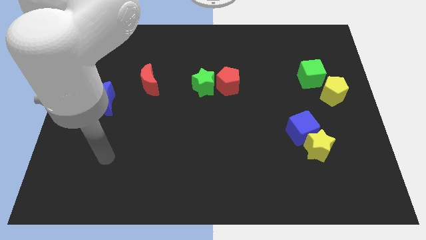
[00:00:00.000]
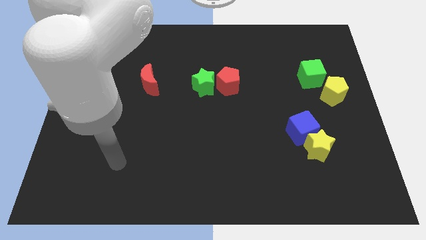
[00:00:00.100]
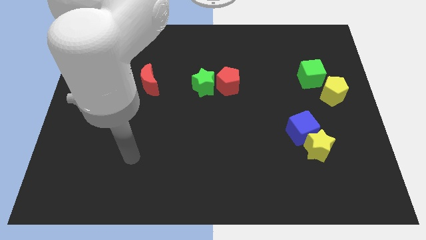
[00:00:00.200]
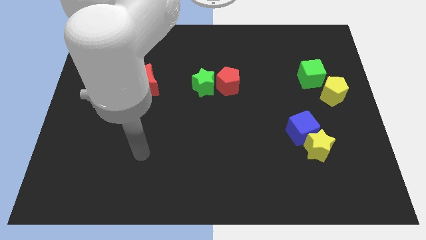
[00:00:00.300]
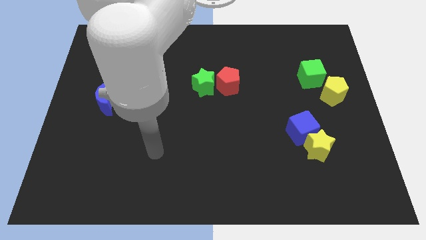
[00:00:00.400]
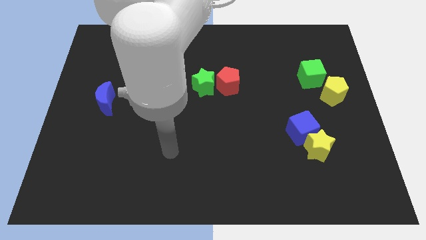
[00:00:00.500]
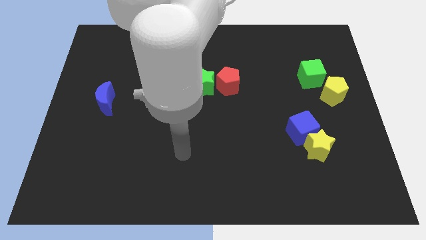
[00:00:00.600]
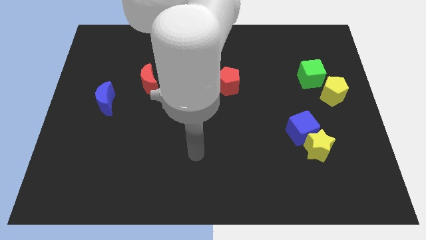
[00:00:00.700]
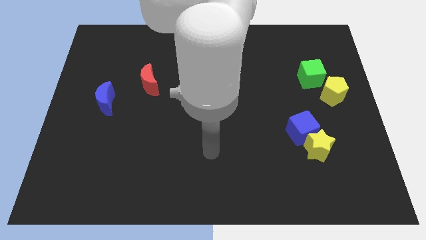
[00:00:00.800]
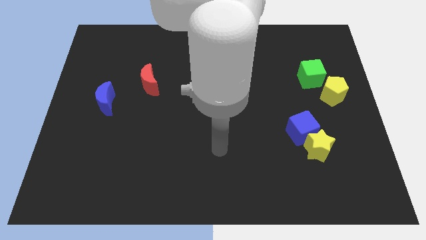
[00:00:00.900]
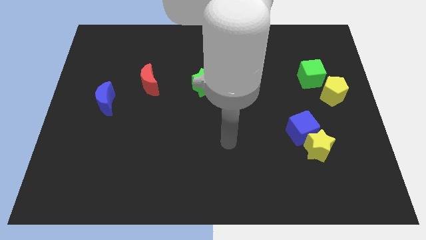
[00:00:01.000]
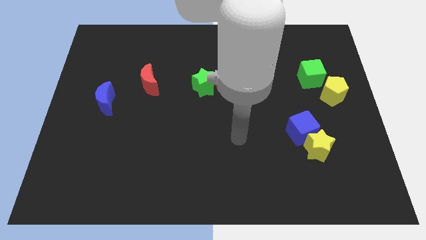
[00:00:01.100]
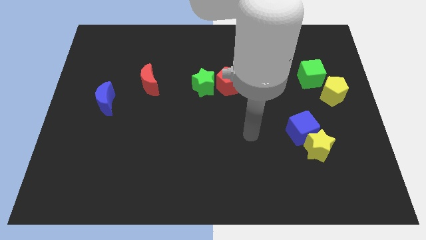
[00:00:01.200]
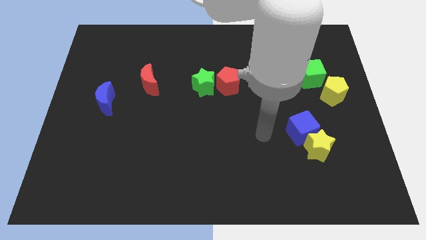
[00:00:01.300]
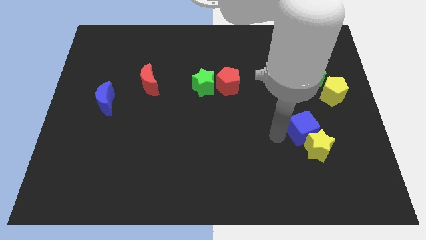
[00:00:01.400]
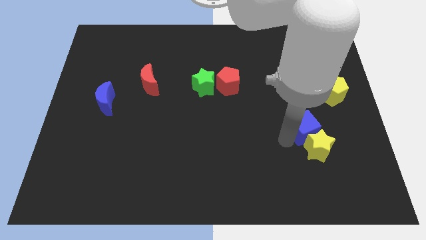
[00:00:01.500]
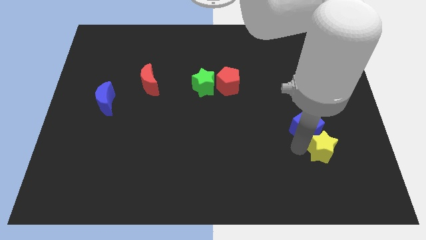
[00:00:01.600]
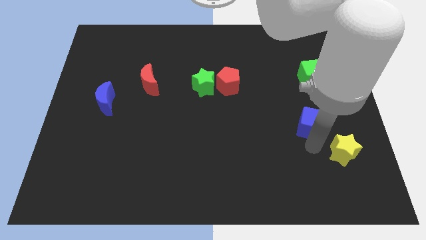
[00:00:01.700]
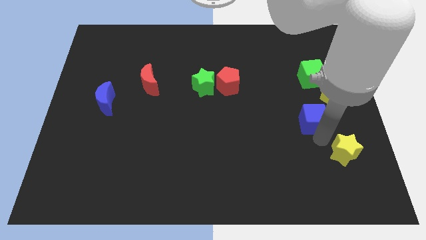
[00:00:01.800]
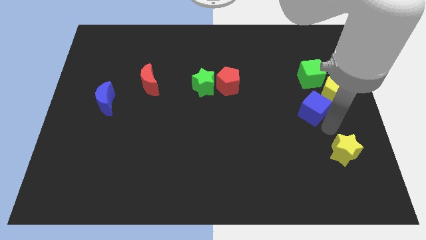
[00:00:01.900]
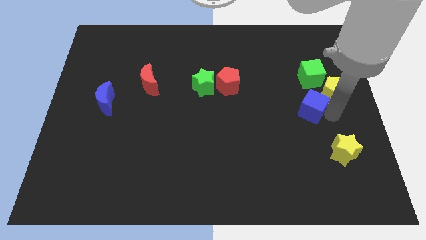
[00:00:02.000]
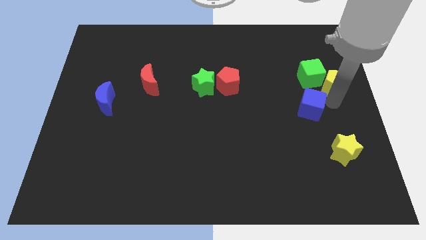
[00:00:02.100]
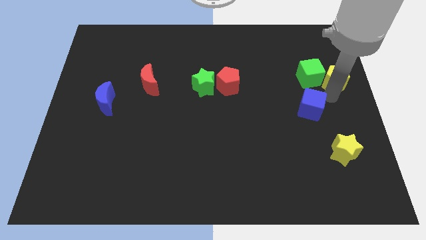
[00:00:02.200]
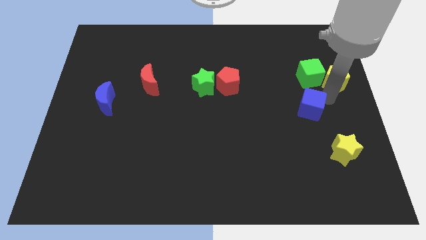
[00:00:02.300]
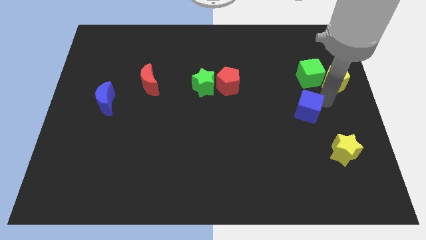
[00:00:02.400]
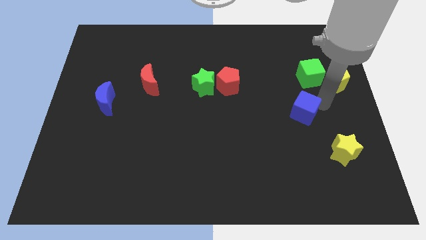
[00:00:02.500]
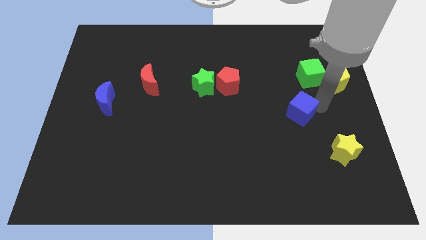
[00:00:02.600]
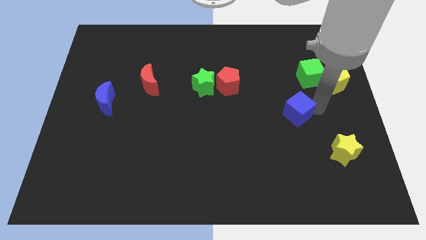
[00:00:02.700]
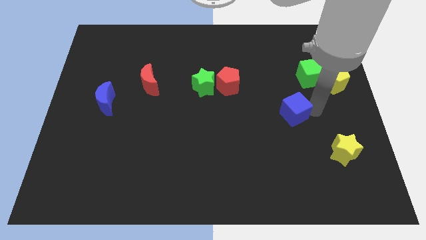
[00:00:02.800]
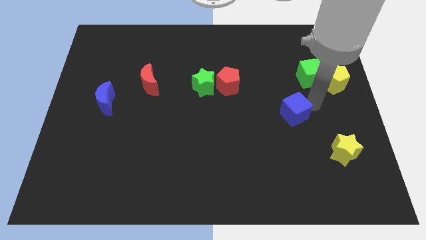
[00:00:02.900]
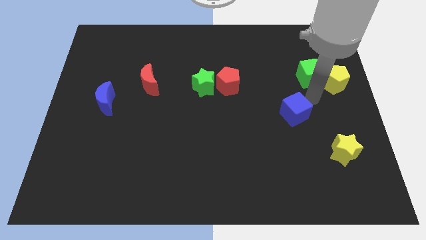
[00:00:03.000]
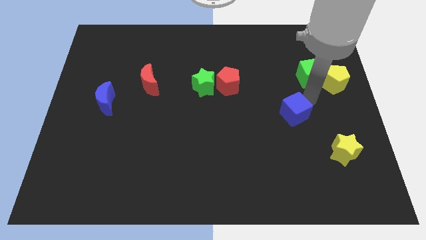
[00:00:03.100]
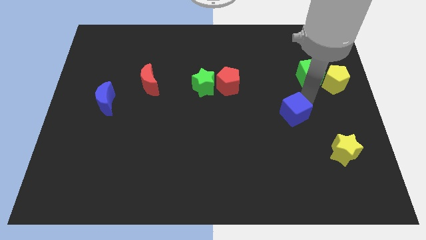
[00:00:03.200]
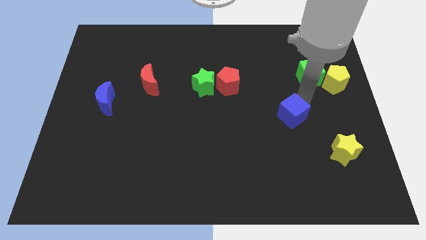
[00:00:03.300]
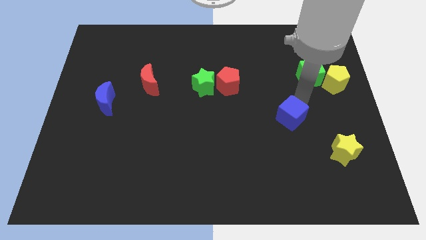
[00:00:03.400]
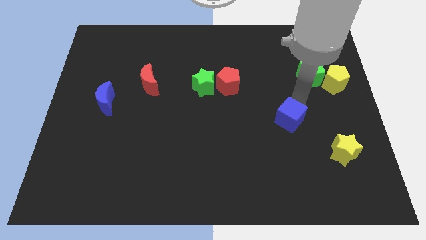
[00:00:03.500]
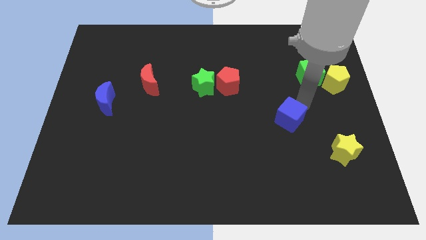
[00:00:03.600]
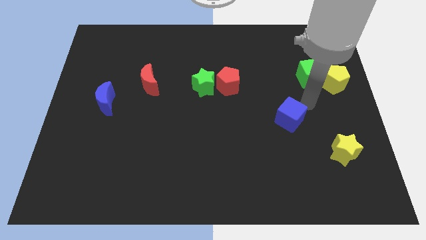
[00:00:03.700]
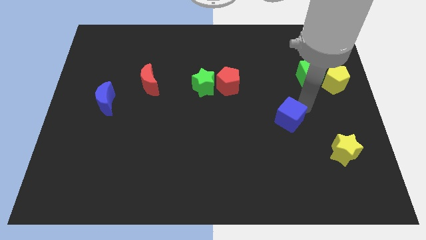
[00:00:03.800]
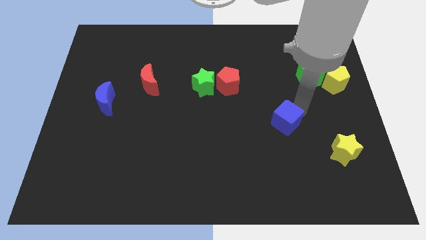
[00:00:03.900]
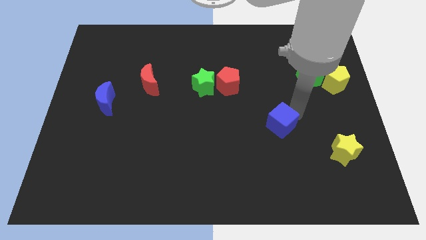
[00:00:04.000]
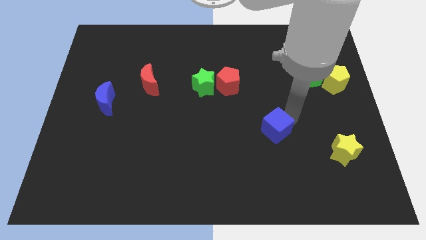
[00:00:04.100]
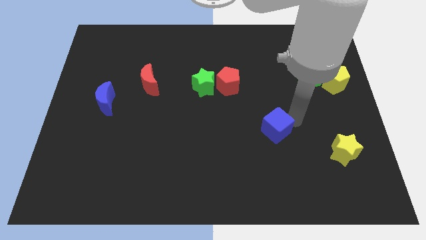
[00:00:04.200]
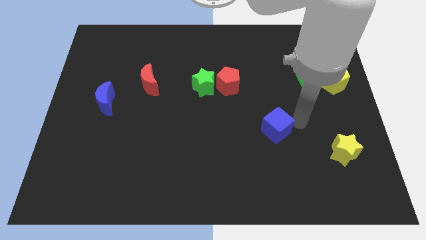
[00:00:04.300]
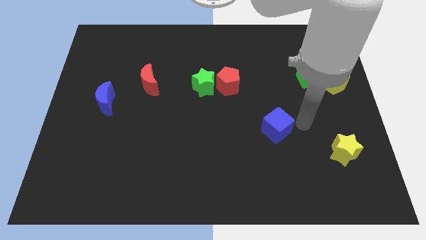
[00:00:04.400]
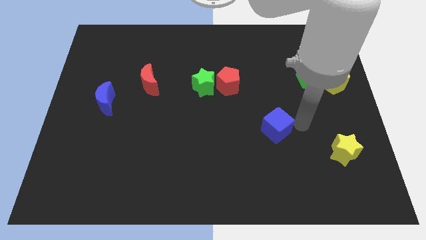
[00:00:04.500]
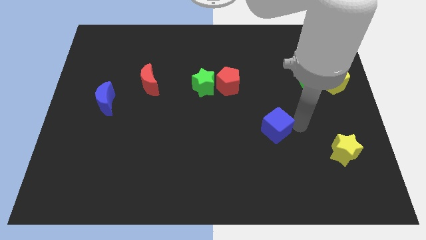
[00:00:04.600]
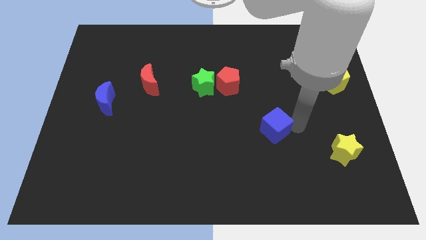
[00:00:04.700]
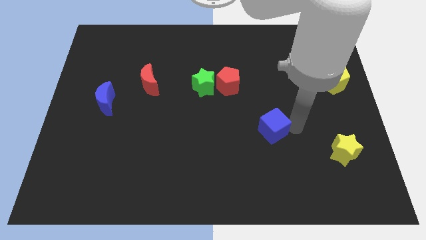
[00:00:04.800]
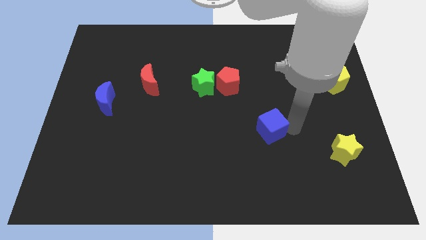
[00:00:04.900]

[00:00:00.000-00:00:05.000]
push the blue cube a bit left

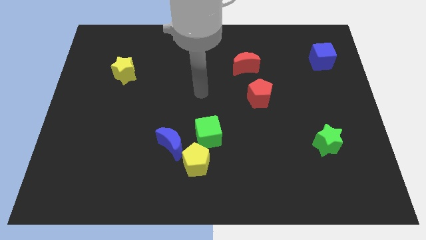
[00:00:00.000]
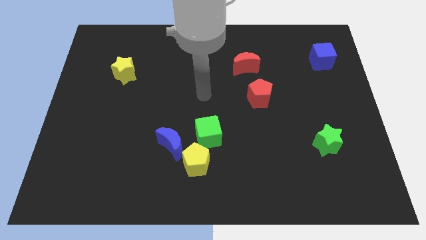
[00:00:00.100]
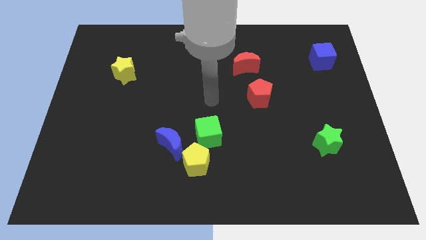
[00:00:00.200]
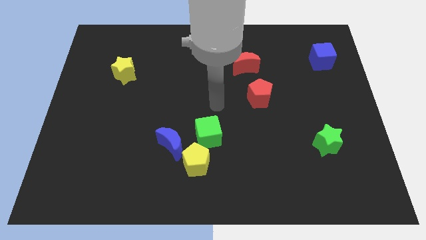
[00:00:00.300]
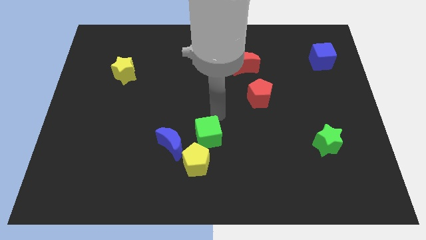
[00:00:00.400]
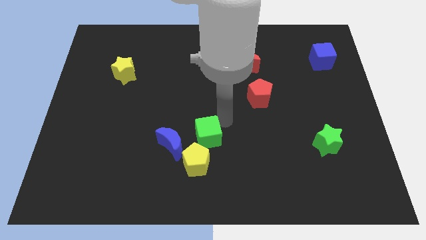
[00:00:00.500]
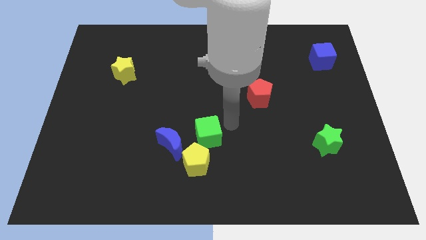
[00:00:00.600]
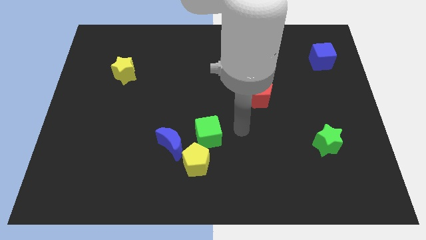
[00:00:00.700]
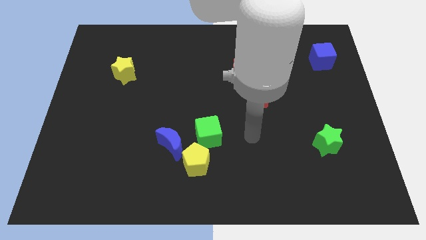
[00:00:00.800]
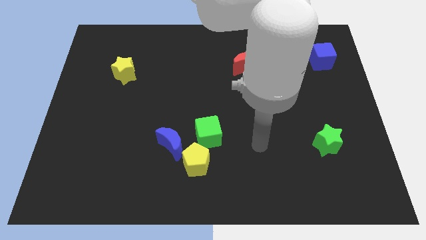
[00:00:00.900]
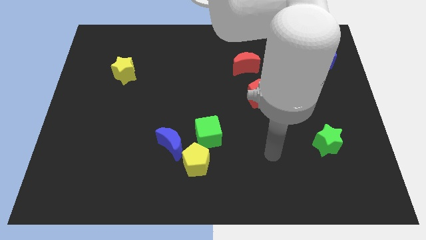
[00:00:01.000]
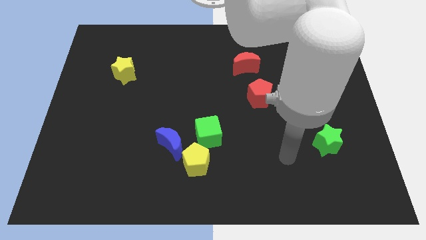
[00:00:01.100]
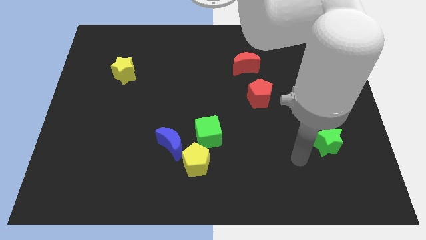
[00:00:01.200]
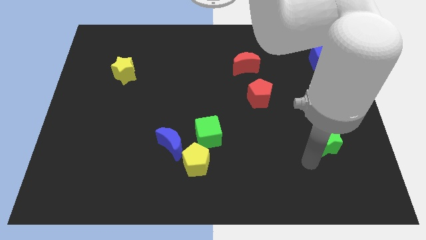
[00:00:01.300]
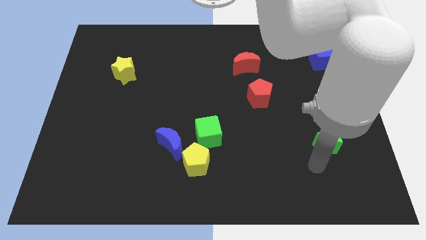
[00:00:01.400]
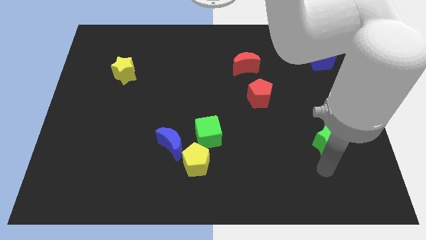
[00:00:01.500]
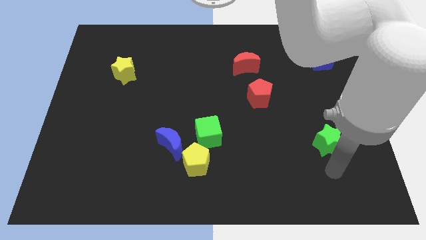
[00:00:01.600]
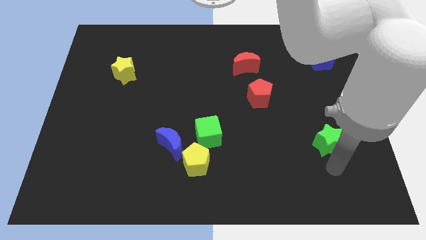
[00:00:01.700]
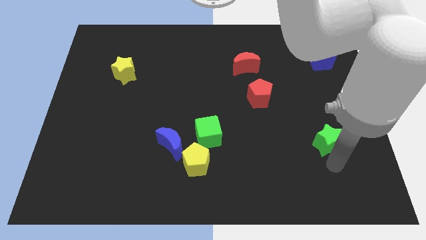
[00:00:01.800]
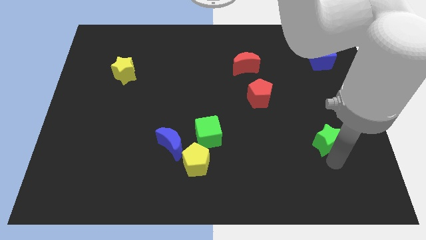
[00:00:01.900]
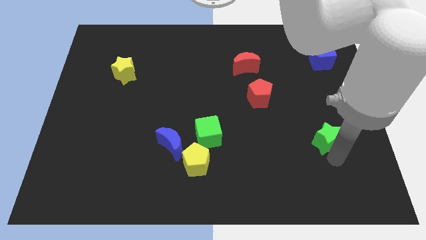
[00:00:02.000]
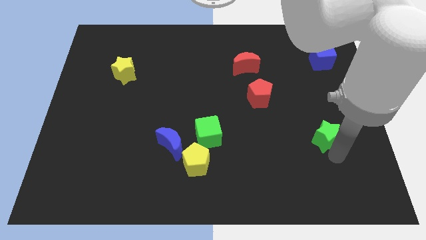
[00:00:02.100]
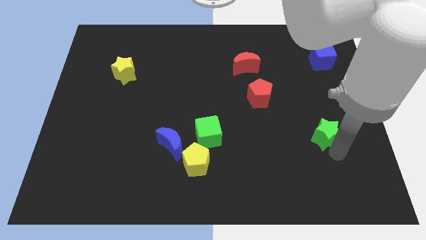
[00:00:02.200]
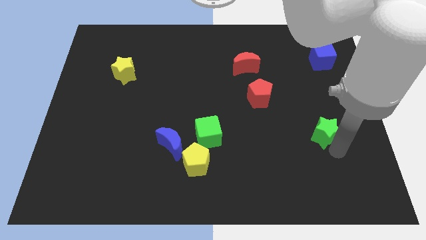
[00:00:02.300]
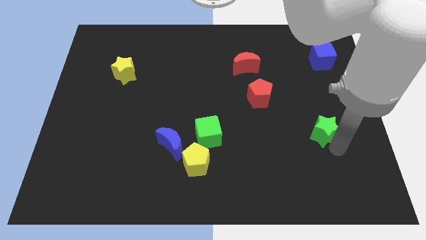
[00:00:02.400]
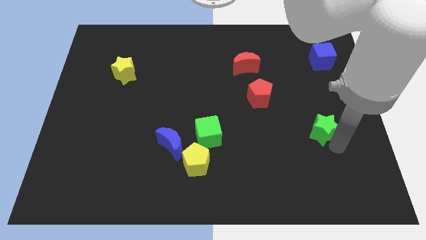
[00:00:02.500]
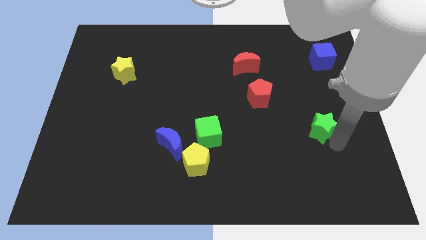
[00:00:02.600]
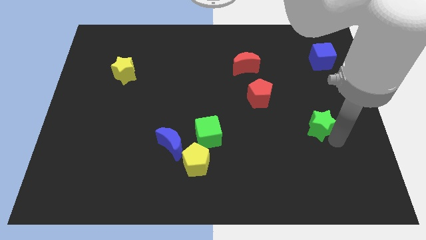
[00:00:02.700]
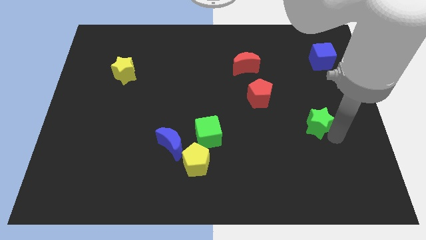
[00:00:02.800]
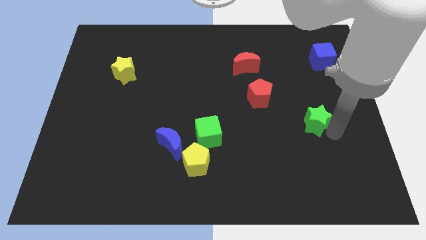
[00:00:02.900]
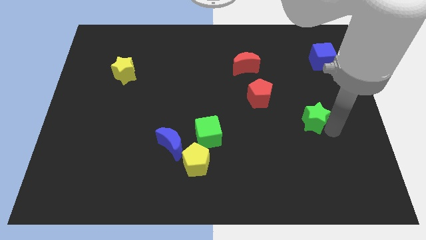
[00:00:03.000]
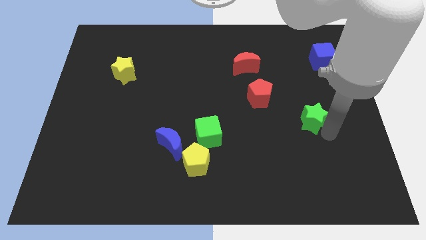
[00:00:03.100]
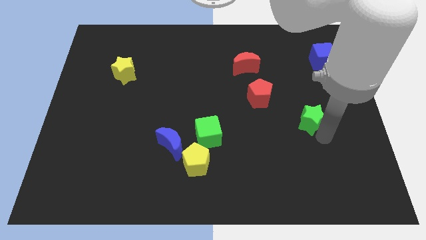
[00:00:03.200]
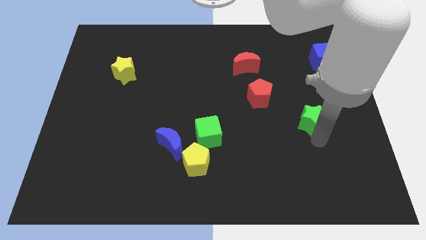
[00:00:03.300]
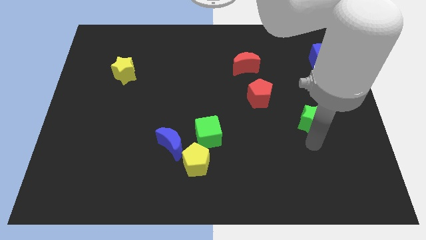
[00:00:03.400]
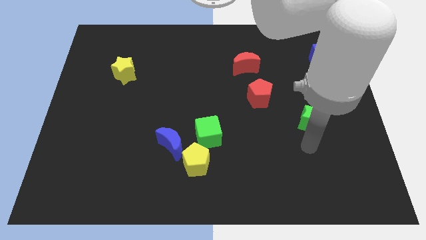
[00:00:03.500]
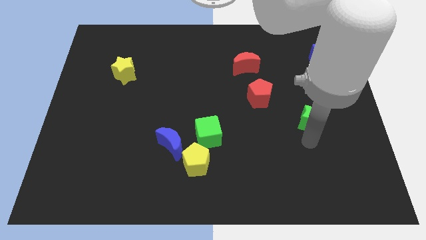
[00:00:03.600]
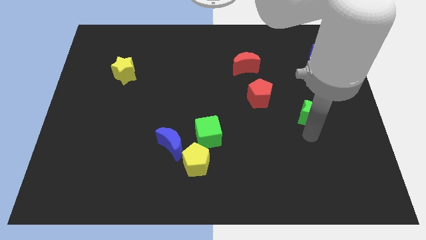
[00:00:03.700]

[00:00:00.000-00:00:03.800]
slide the green star upwards a little
